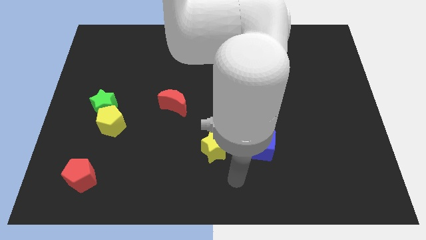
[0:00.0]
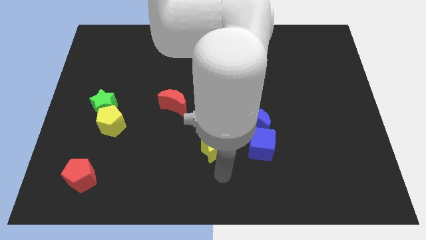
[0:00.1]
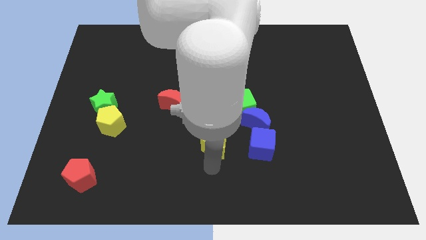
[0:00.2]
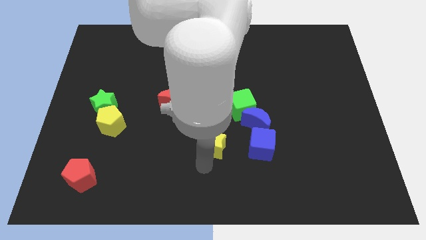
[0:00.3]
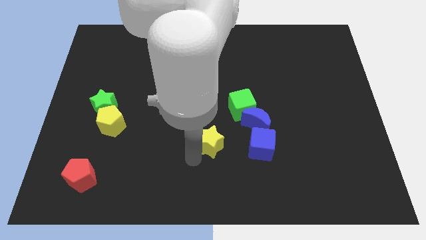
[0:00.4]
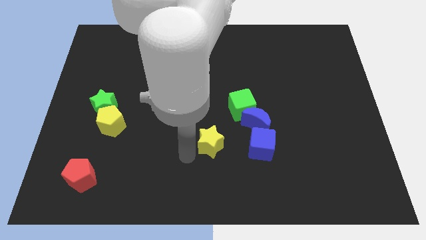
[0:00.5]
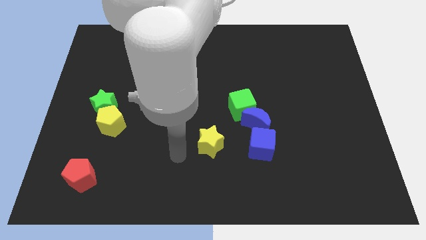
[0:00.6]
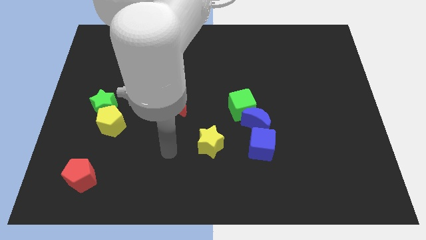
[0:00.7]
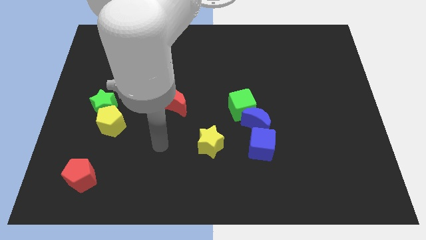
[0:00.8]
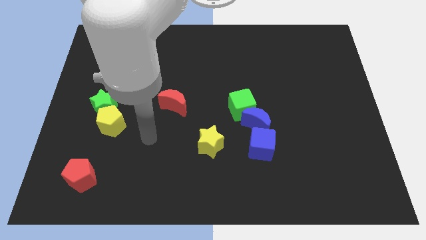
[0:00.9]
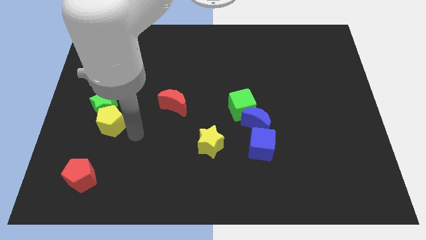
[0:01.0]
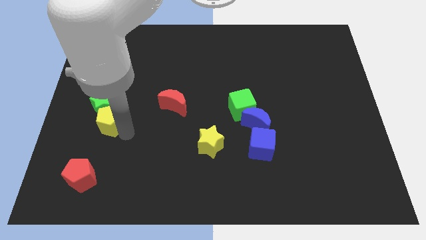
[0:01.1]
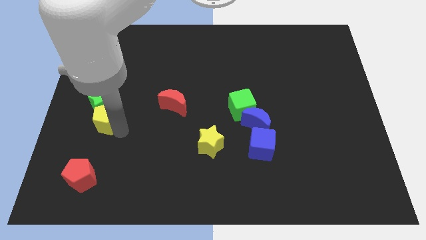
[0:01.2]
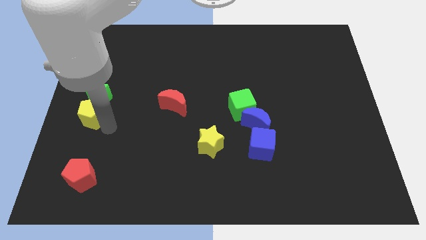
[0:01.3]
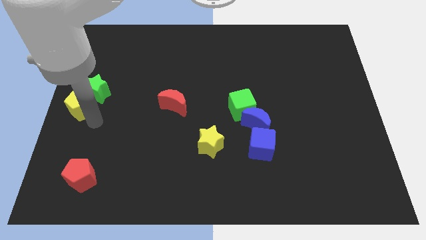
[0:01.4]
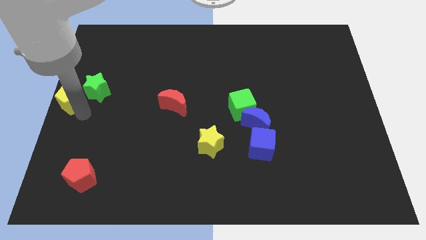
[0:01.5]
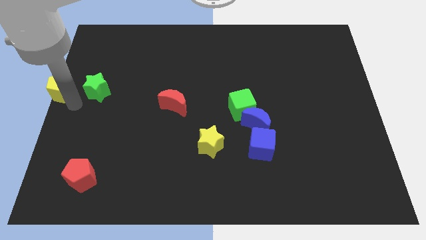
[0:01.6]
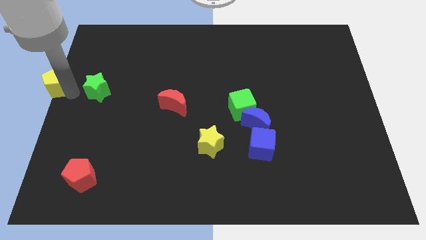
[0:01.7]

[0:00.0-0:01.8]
move the green star away from the yellow pentagon

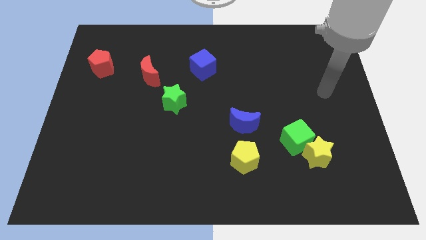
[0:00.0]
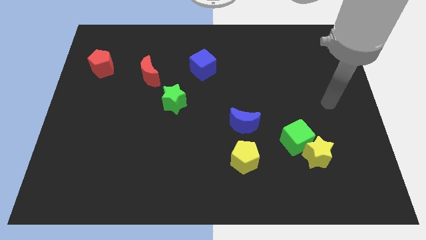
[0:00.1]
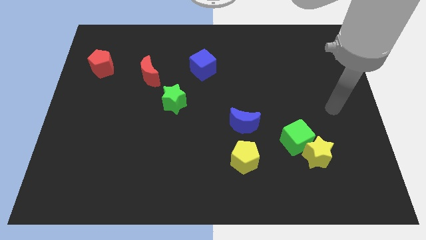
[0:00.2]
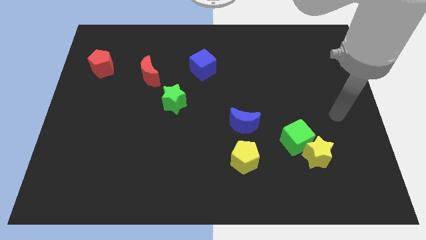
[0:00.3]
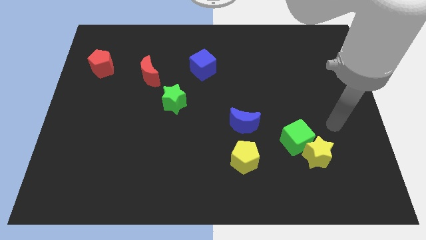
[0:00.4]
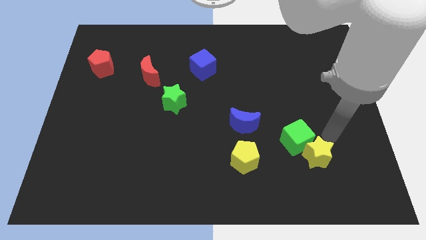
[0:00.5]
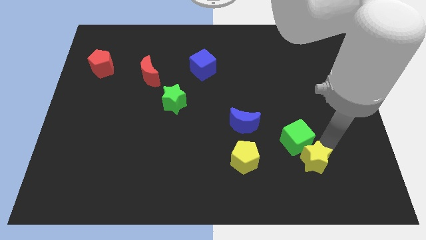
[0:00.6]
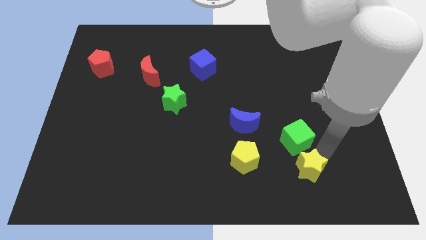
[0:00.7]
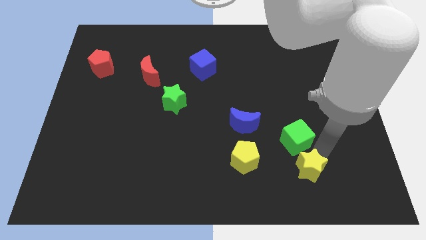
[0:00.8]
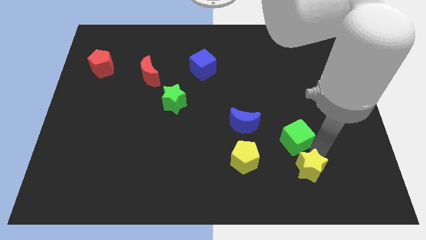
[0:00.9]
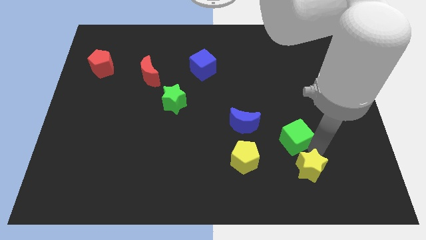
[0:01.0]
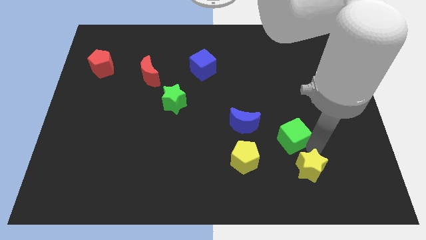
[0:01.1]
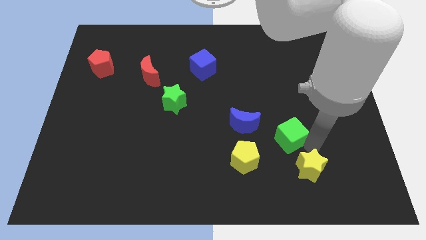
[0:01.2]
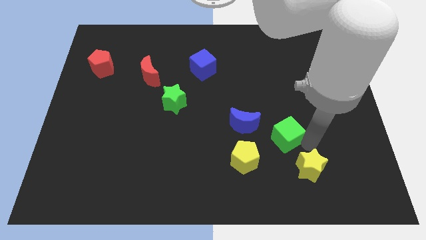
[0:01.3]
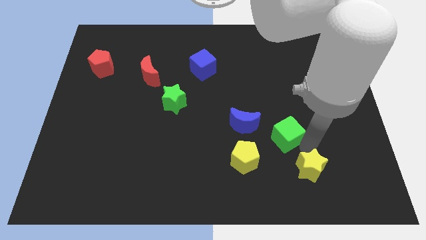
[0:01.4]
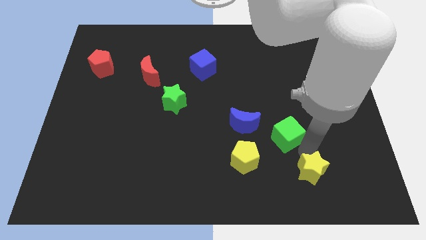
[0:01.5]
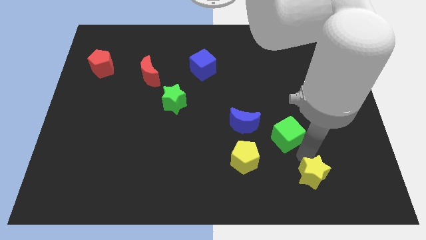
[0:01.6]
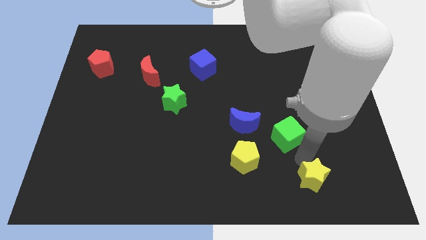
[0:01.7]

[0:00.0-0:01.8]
move the green cube away from the yellow star

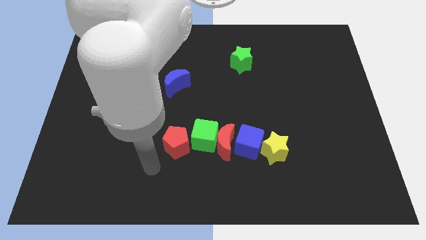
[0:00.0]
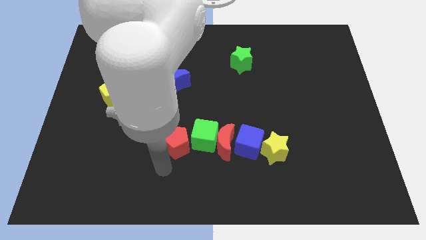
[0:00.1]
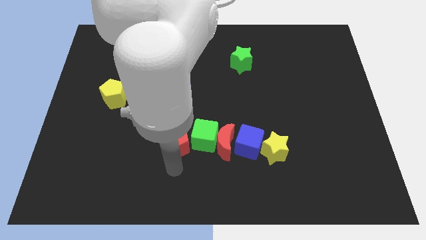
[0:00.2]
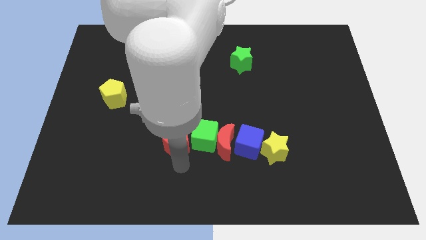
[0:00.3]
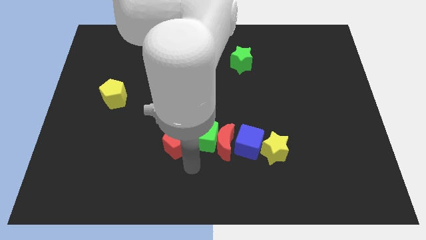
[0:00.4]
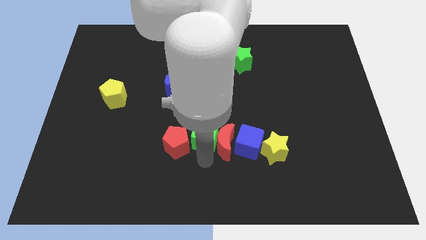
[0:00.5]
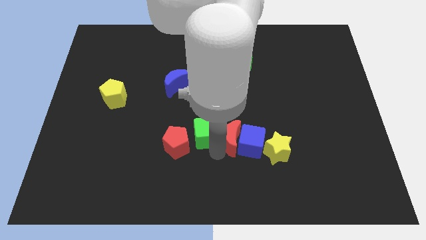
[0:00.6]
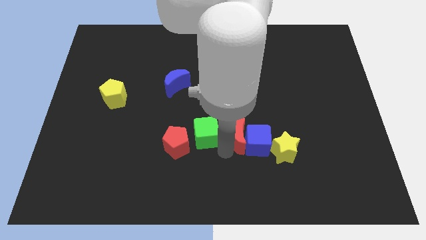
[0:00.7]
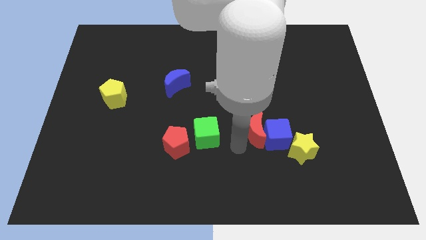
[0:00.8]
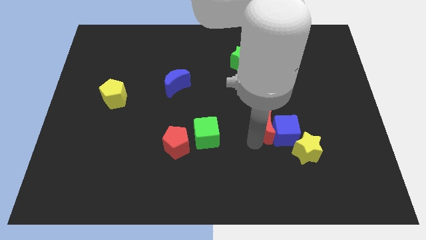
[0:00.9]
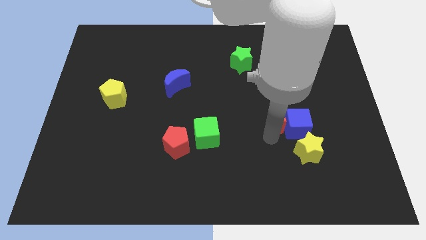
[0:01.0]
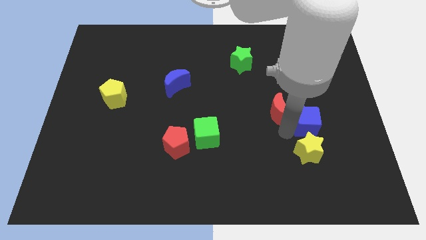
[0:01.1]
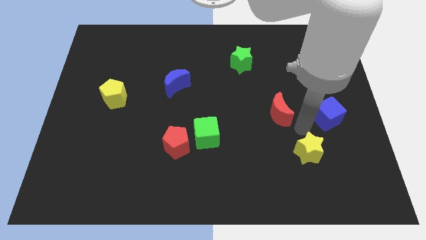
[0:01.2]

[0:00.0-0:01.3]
pull the yellow star apart from the blue cube

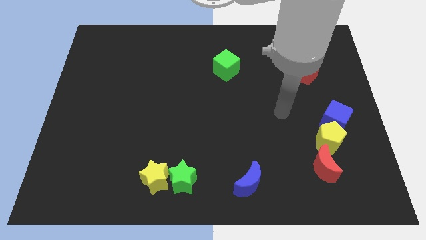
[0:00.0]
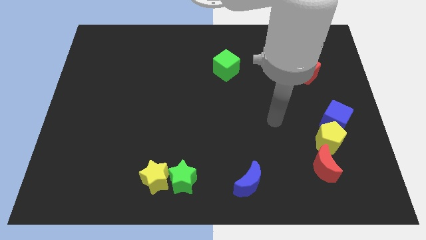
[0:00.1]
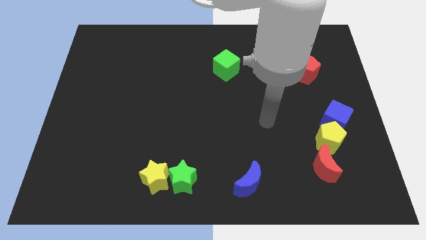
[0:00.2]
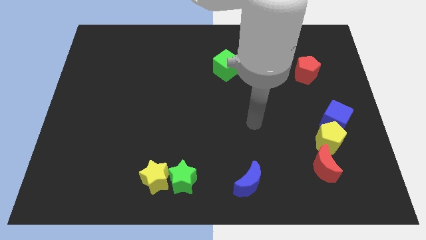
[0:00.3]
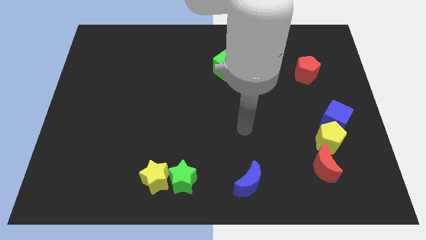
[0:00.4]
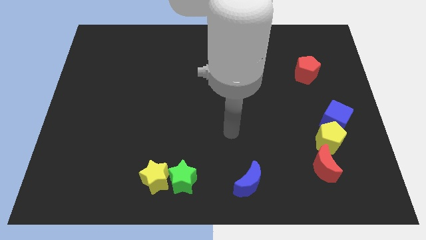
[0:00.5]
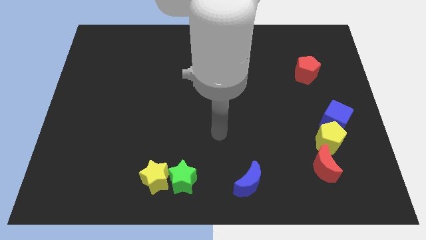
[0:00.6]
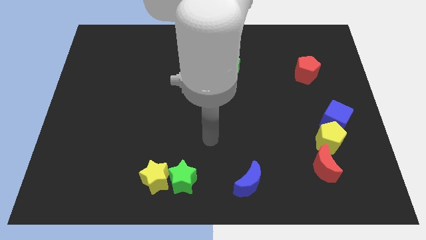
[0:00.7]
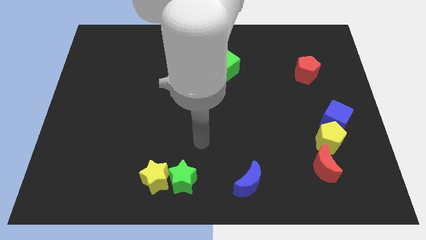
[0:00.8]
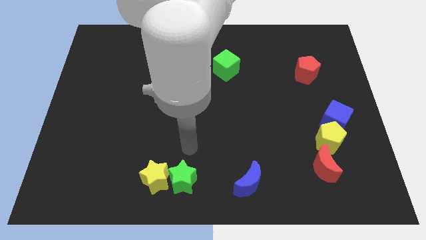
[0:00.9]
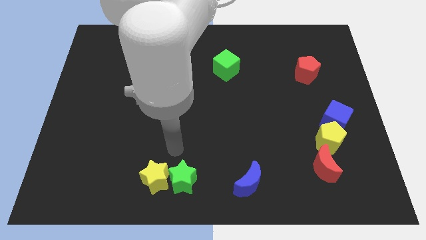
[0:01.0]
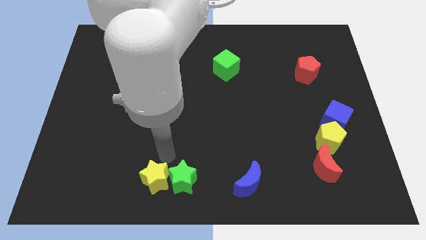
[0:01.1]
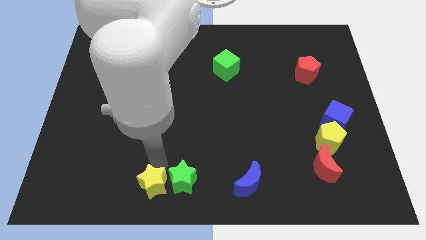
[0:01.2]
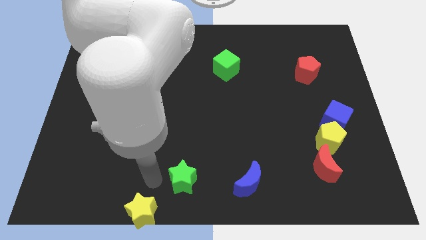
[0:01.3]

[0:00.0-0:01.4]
pull the green star apart from the yellow star

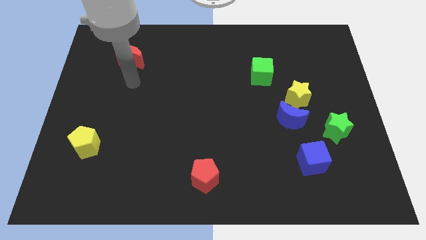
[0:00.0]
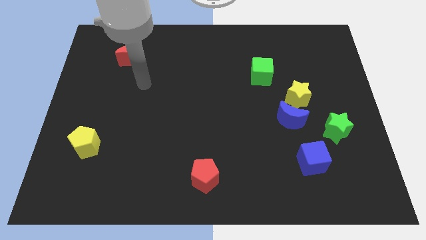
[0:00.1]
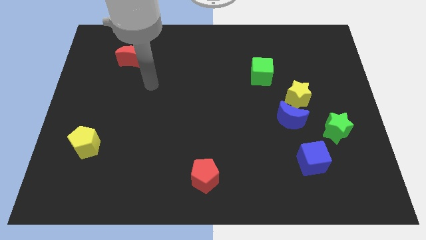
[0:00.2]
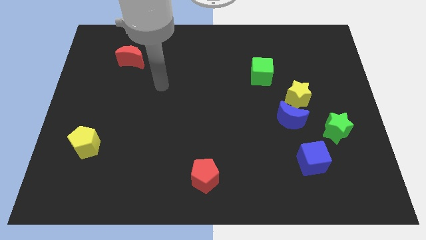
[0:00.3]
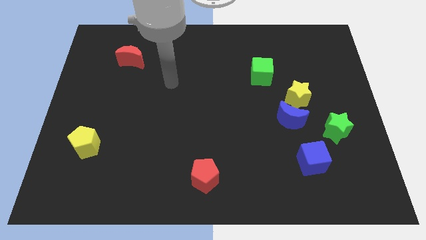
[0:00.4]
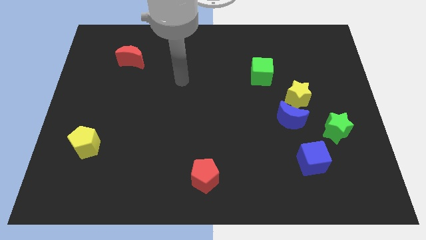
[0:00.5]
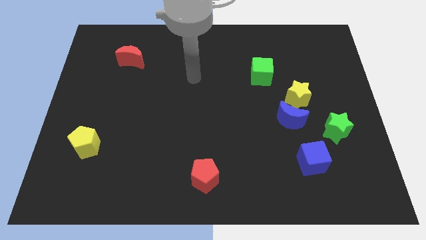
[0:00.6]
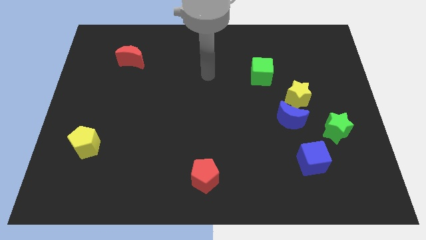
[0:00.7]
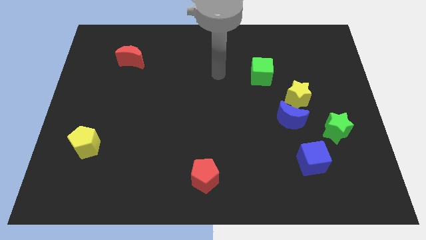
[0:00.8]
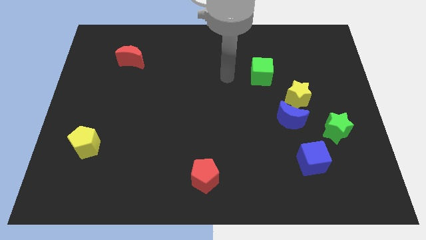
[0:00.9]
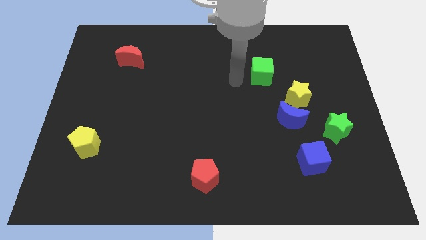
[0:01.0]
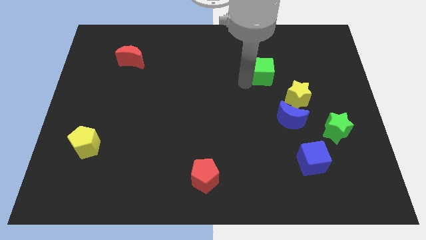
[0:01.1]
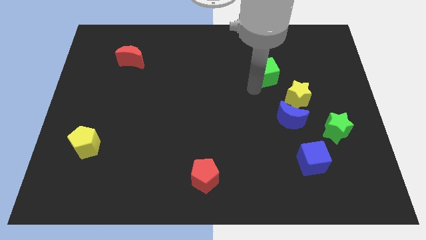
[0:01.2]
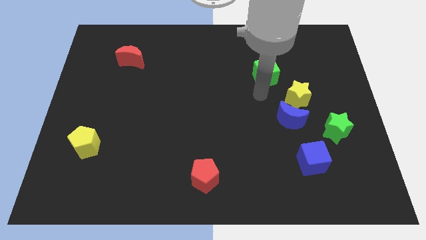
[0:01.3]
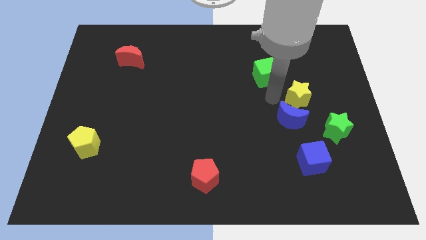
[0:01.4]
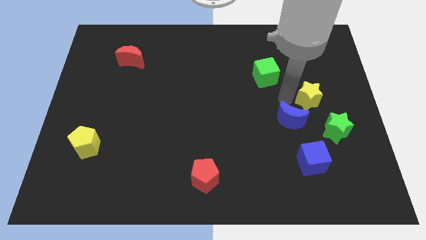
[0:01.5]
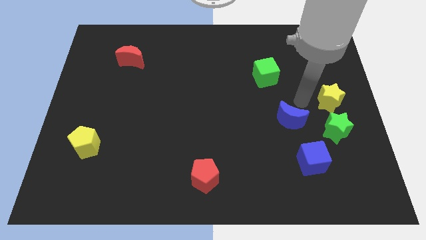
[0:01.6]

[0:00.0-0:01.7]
move the blue moon away from the yellow star

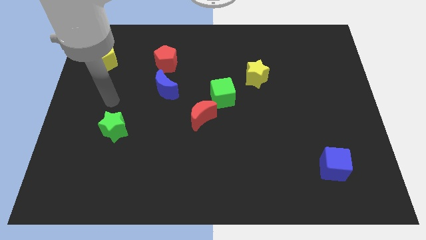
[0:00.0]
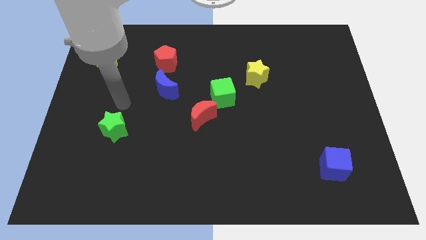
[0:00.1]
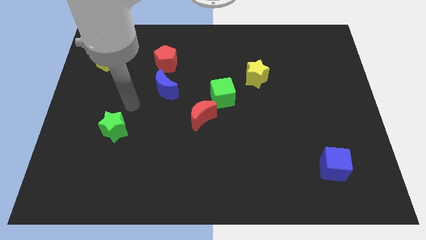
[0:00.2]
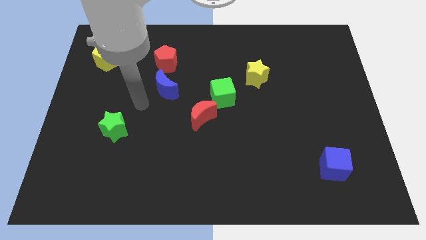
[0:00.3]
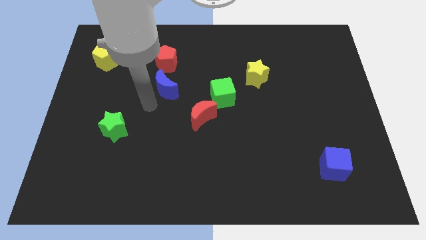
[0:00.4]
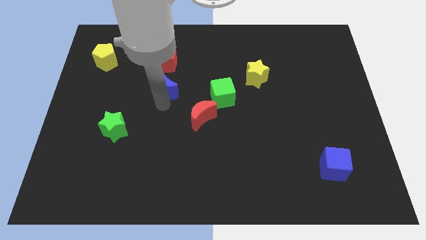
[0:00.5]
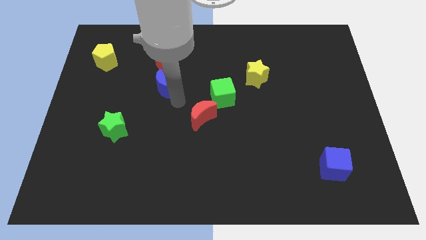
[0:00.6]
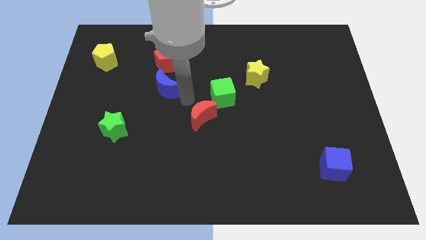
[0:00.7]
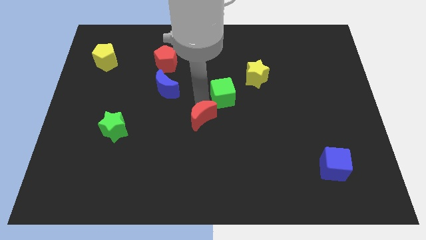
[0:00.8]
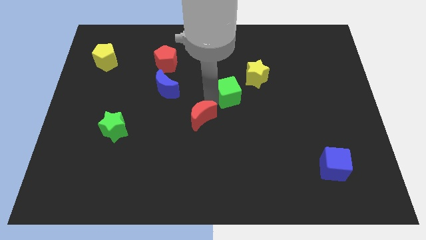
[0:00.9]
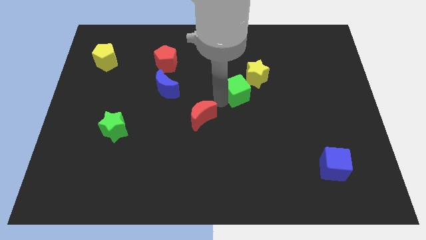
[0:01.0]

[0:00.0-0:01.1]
separate the red moon from the green cube

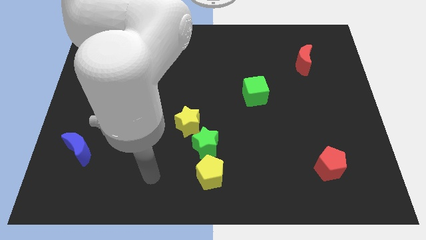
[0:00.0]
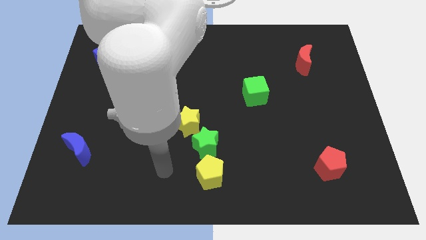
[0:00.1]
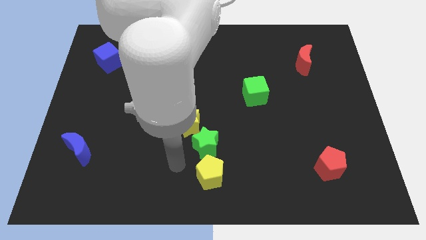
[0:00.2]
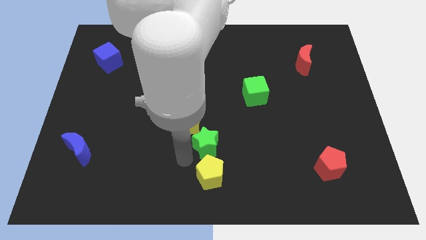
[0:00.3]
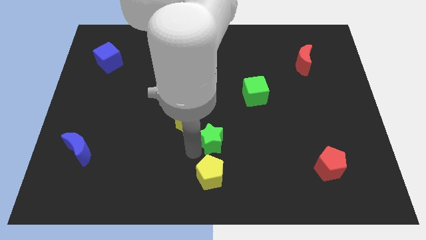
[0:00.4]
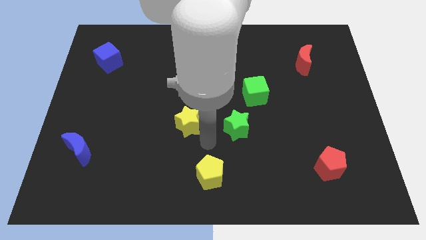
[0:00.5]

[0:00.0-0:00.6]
separate the yellow star from the green star
